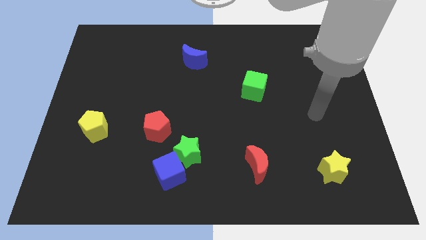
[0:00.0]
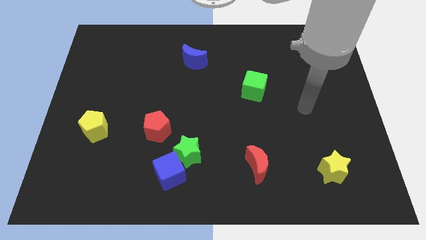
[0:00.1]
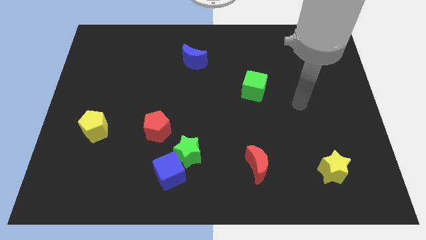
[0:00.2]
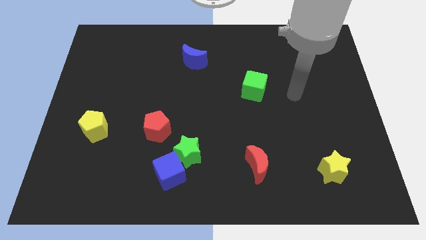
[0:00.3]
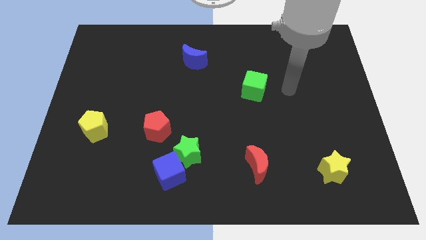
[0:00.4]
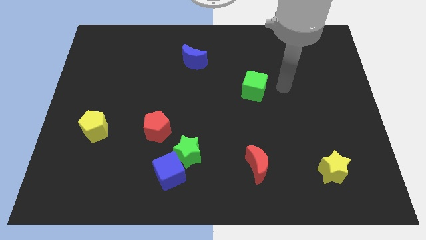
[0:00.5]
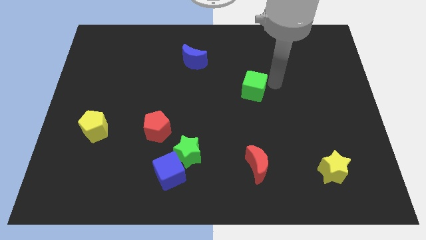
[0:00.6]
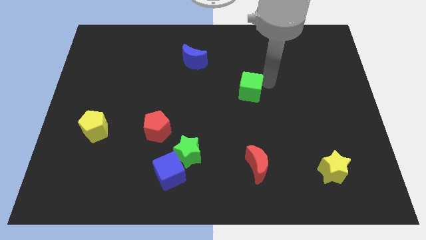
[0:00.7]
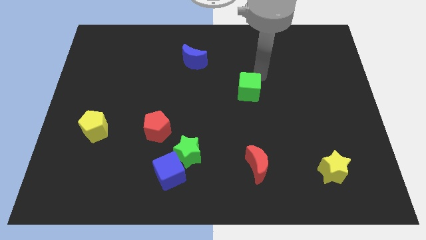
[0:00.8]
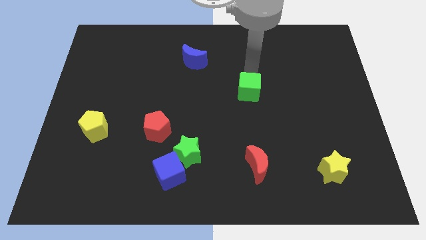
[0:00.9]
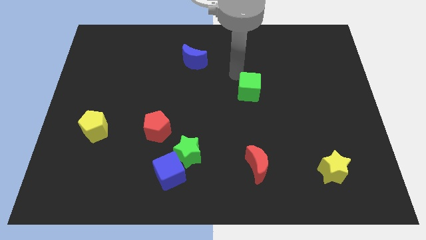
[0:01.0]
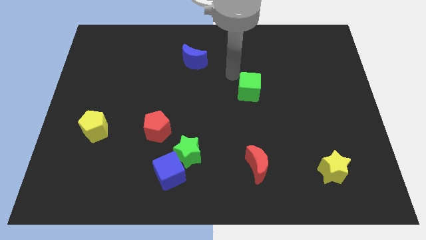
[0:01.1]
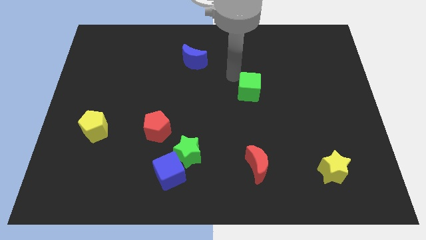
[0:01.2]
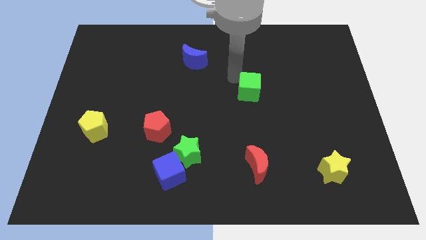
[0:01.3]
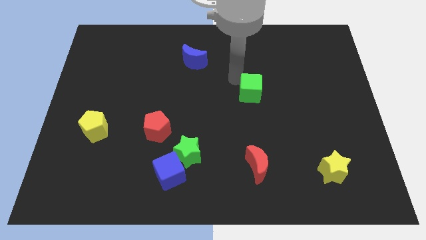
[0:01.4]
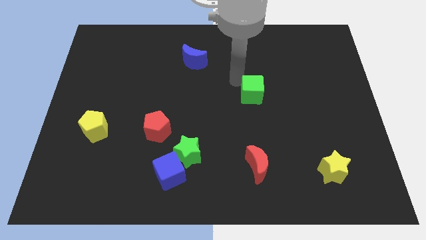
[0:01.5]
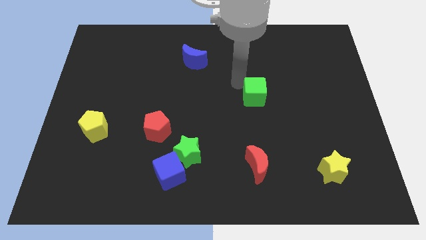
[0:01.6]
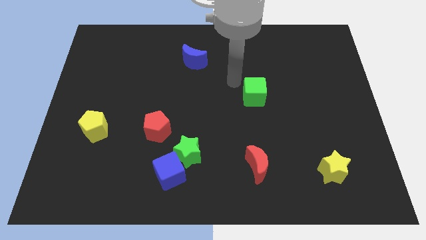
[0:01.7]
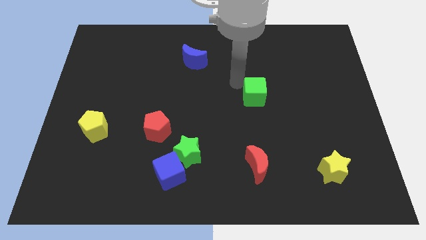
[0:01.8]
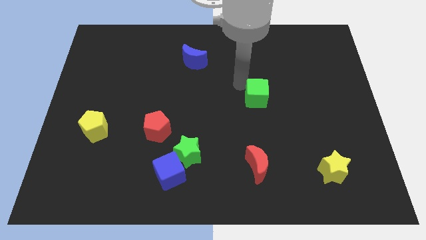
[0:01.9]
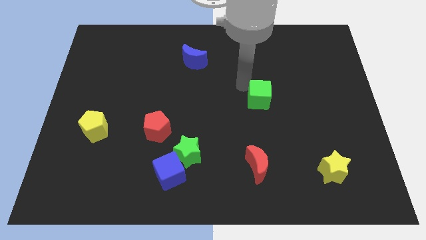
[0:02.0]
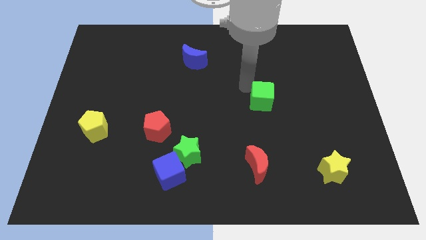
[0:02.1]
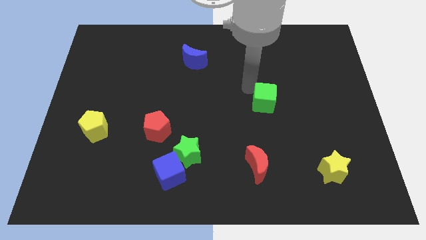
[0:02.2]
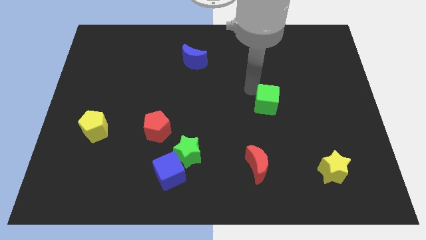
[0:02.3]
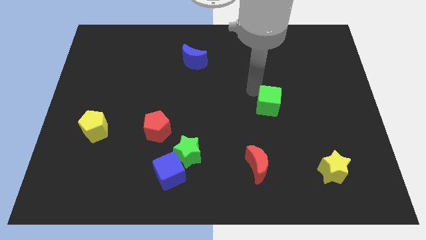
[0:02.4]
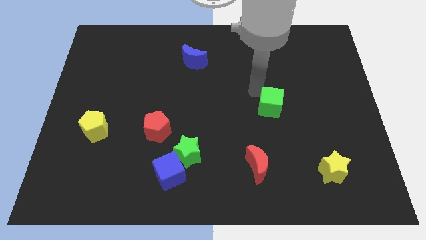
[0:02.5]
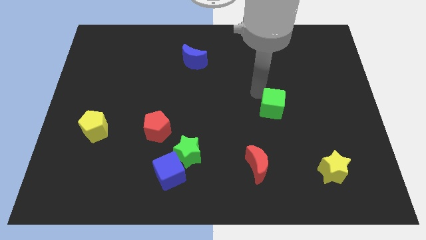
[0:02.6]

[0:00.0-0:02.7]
slightly slide the green cube downwards and then right

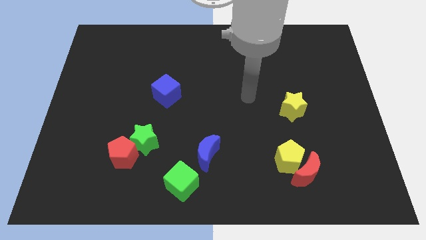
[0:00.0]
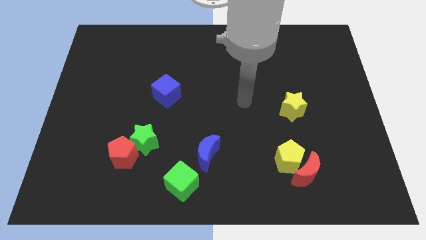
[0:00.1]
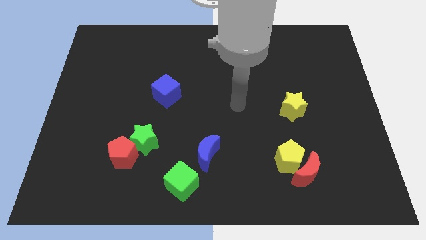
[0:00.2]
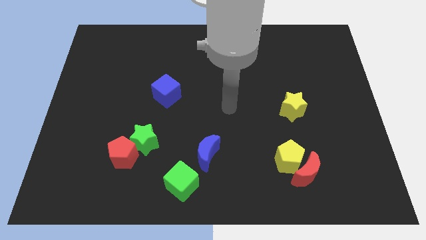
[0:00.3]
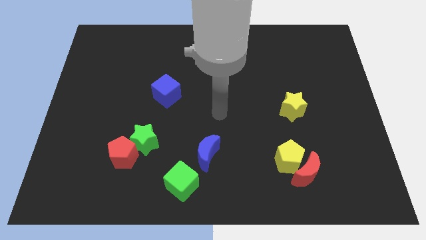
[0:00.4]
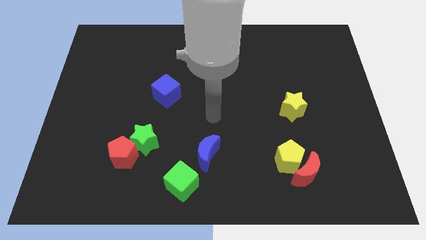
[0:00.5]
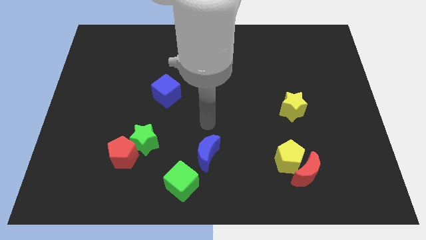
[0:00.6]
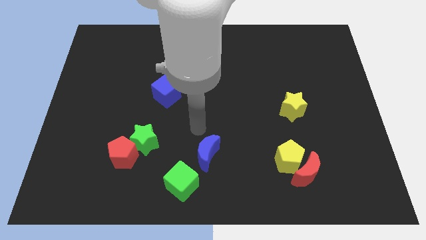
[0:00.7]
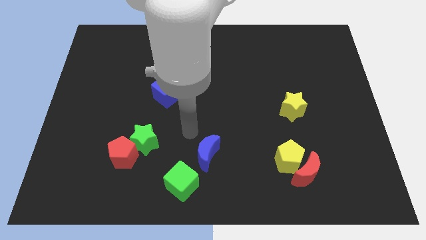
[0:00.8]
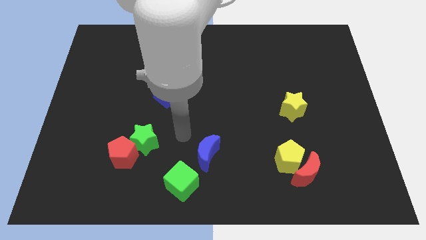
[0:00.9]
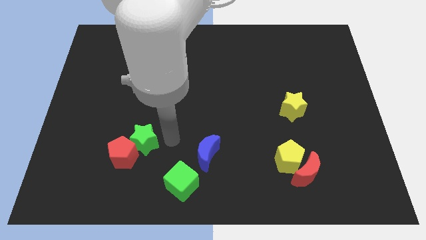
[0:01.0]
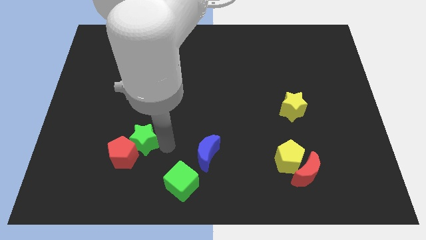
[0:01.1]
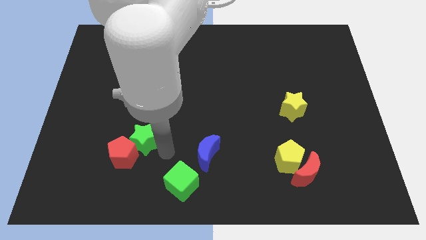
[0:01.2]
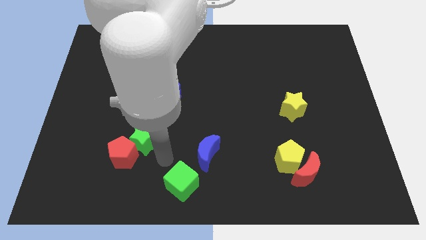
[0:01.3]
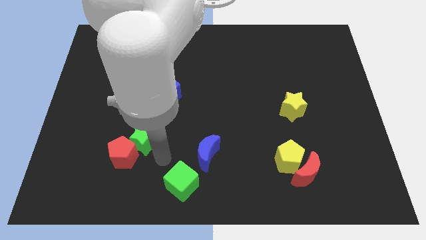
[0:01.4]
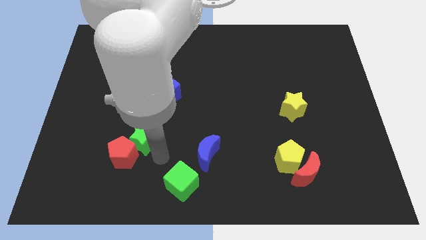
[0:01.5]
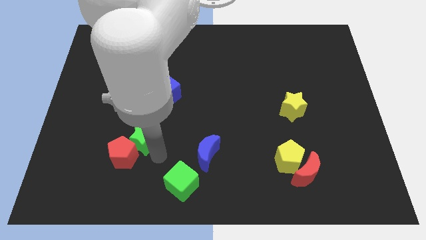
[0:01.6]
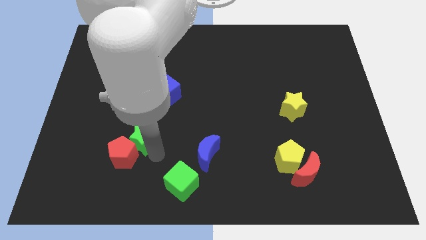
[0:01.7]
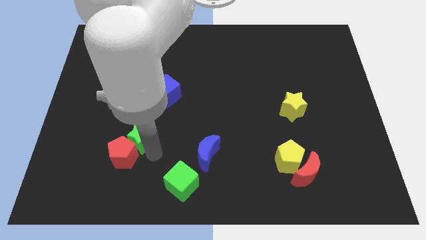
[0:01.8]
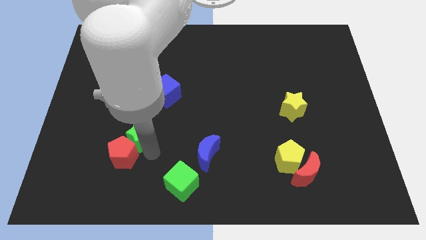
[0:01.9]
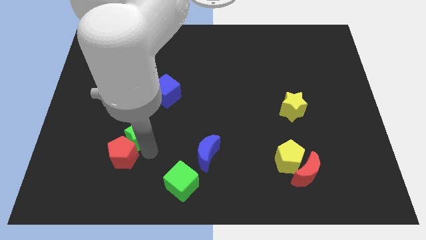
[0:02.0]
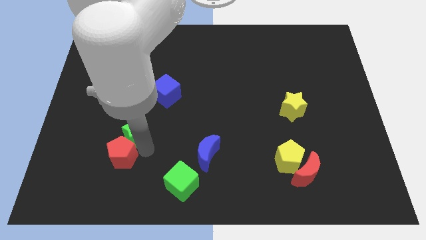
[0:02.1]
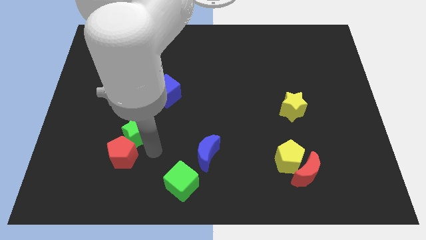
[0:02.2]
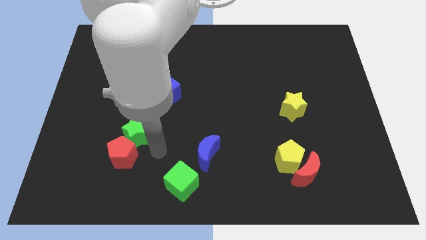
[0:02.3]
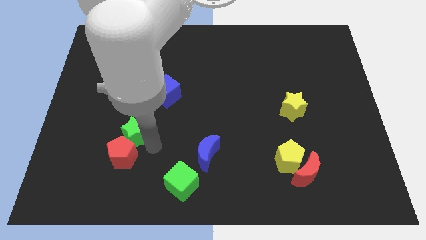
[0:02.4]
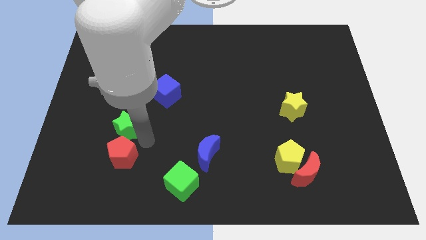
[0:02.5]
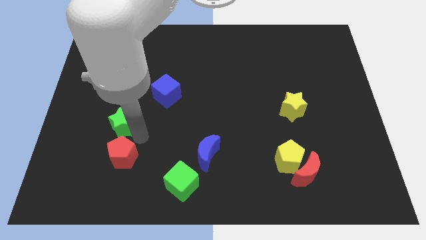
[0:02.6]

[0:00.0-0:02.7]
slightly move the green star upwards and then to the left

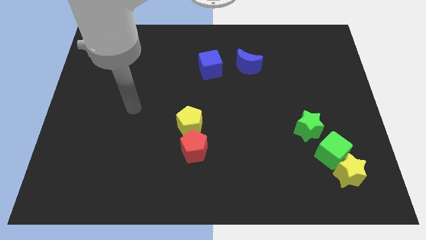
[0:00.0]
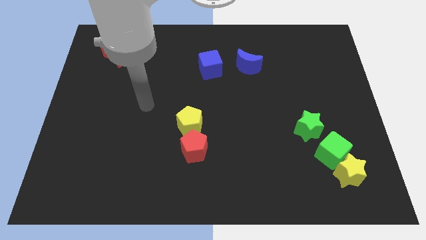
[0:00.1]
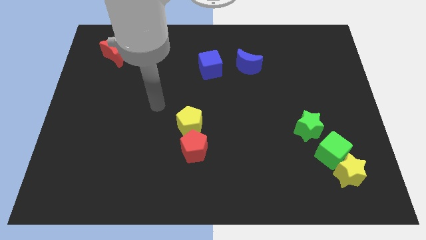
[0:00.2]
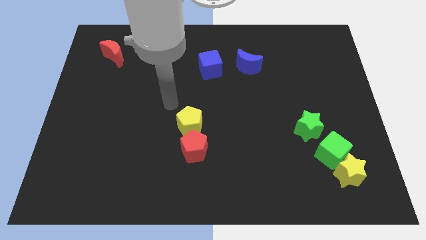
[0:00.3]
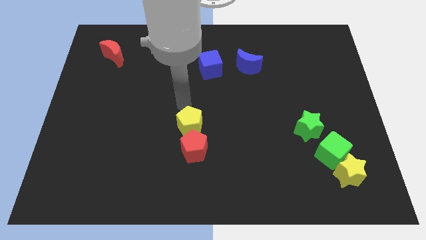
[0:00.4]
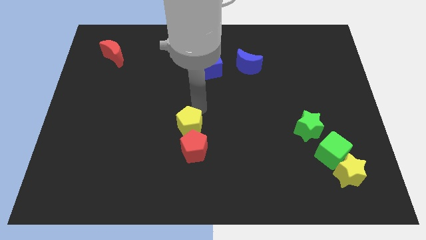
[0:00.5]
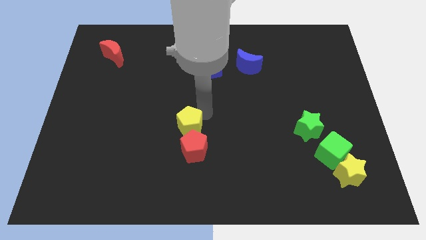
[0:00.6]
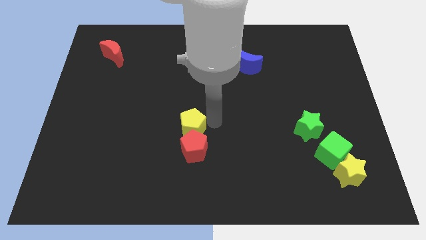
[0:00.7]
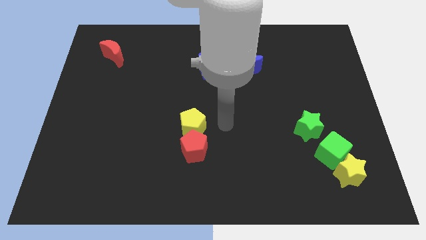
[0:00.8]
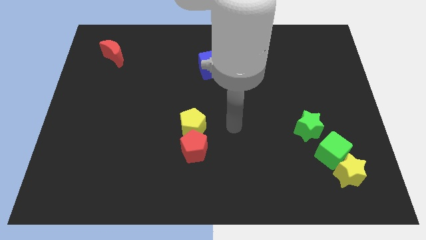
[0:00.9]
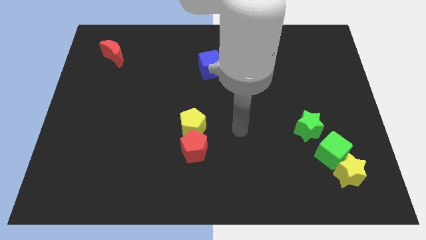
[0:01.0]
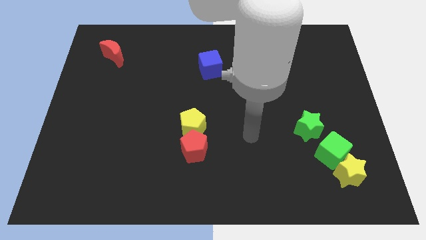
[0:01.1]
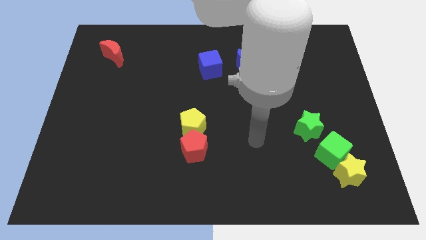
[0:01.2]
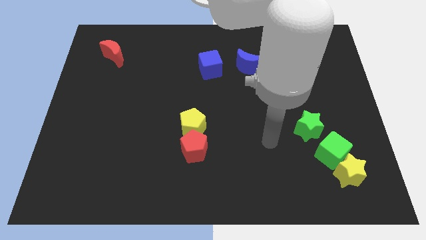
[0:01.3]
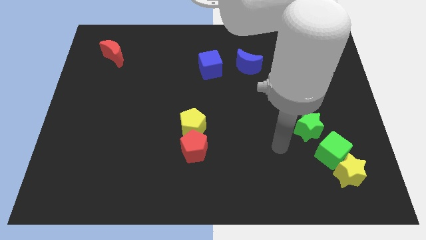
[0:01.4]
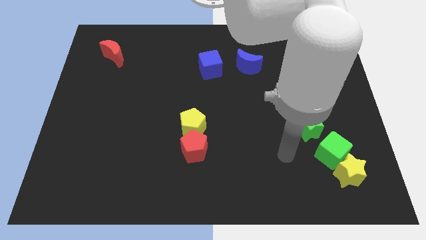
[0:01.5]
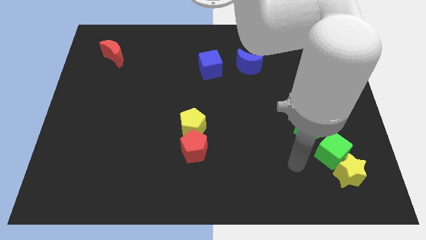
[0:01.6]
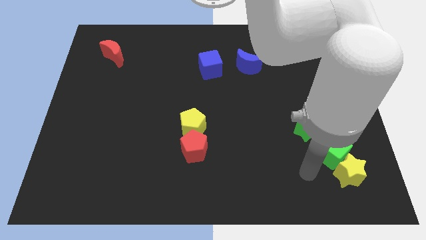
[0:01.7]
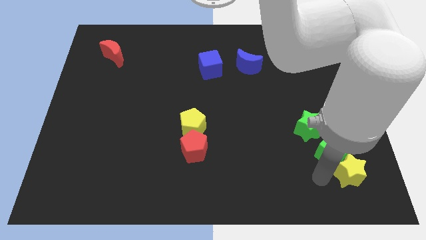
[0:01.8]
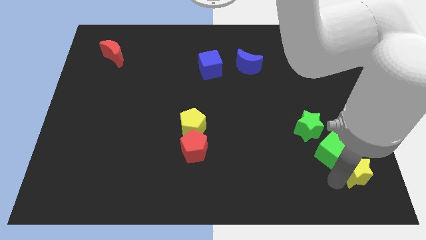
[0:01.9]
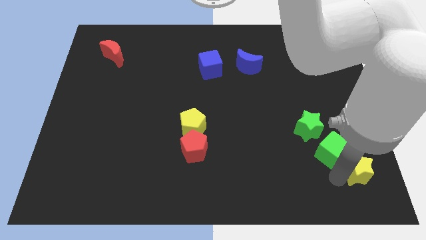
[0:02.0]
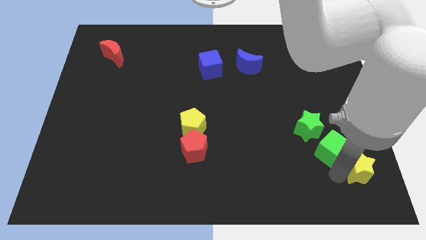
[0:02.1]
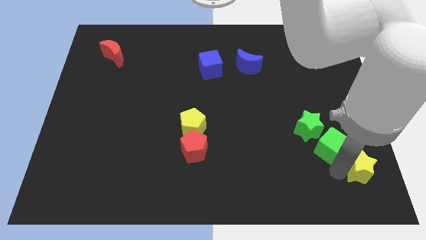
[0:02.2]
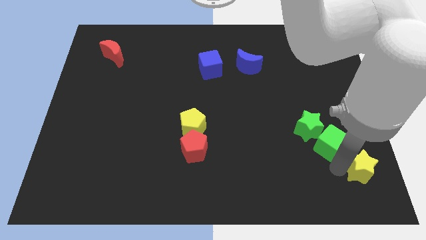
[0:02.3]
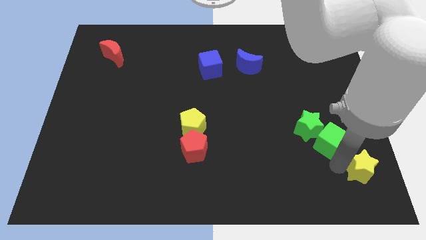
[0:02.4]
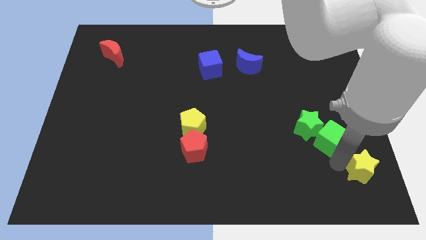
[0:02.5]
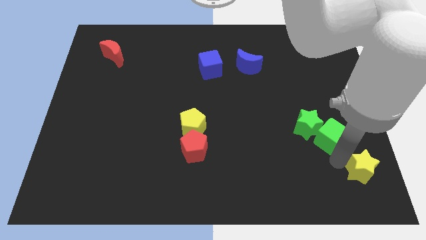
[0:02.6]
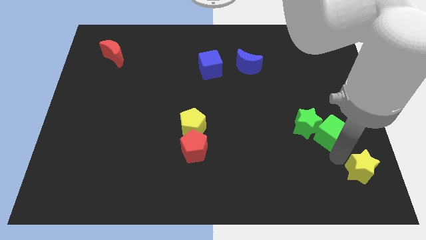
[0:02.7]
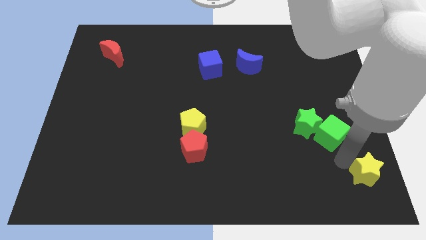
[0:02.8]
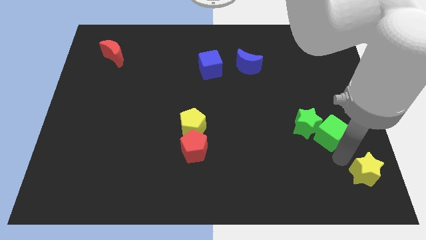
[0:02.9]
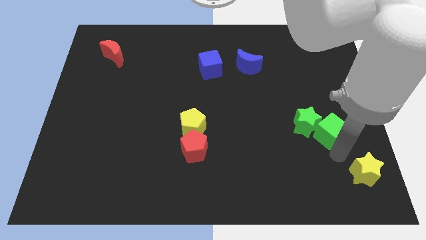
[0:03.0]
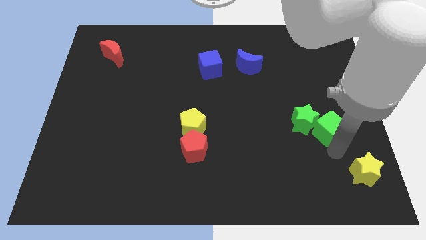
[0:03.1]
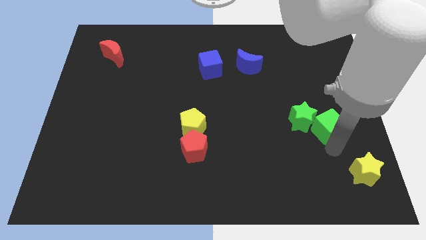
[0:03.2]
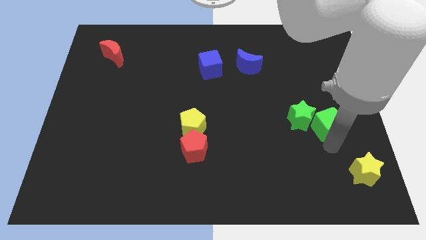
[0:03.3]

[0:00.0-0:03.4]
slightly push the green cube up
